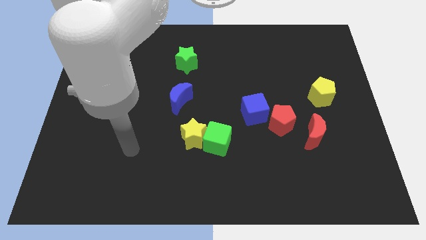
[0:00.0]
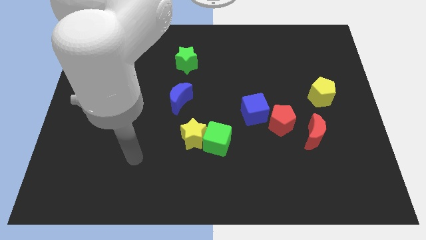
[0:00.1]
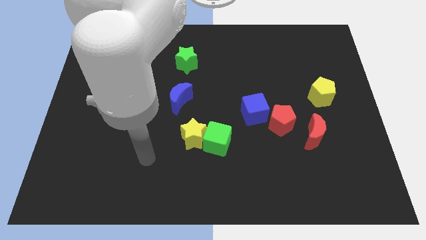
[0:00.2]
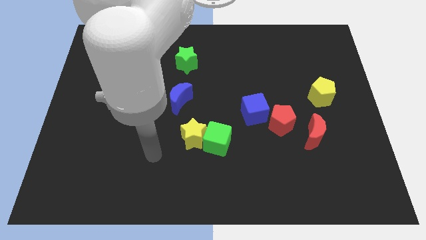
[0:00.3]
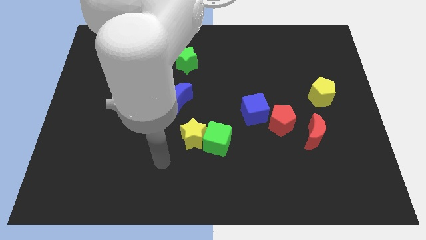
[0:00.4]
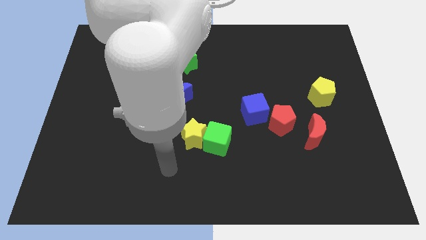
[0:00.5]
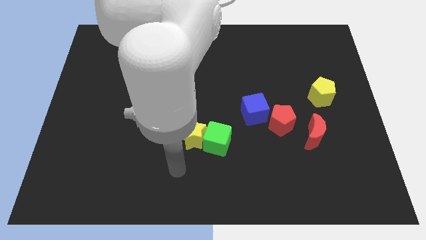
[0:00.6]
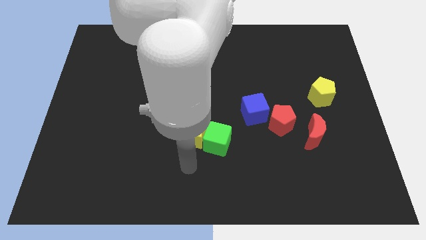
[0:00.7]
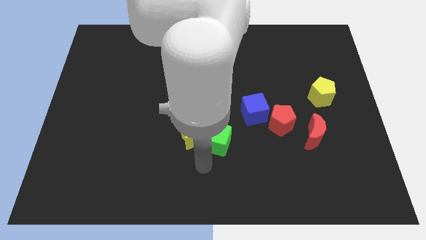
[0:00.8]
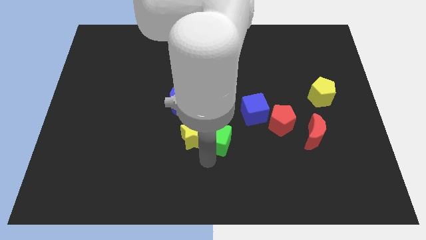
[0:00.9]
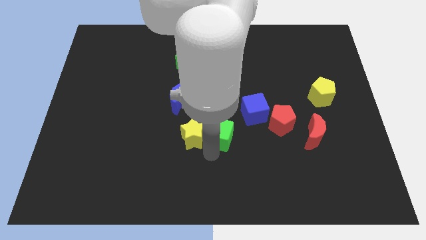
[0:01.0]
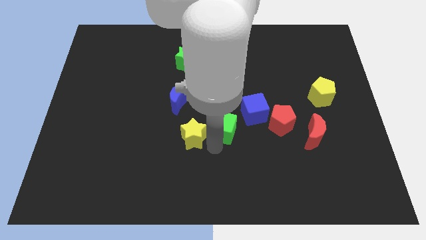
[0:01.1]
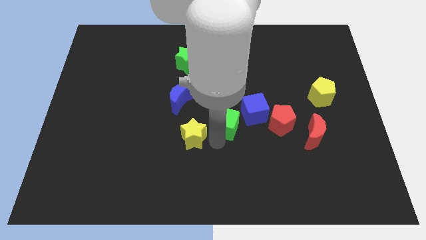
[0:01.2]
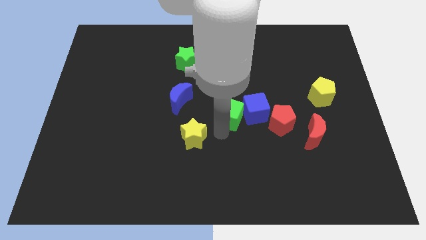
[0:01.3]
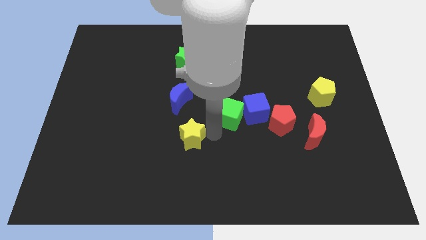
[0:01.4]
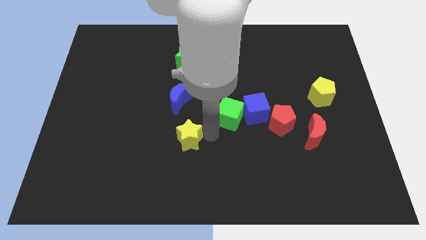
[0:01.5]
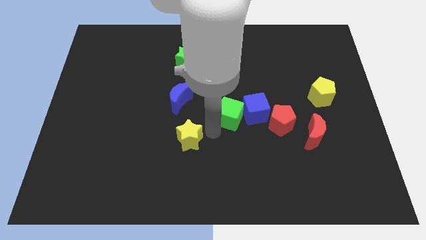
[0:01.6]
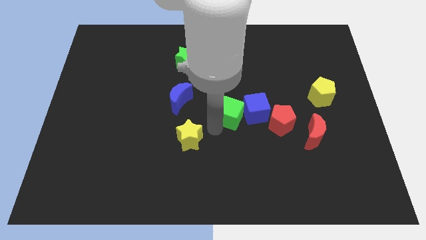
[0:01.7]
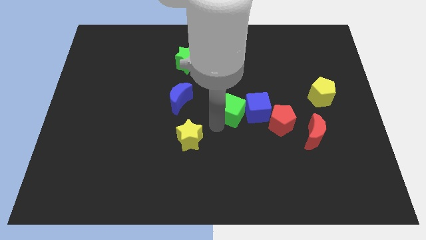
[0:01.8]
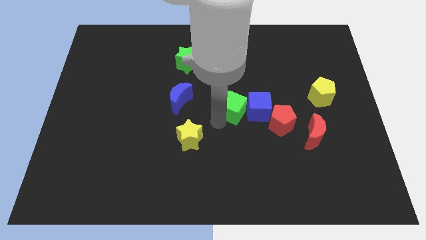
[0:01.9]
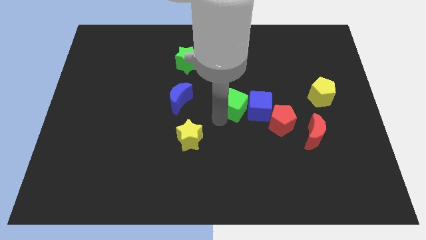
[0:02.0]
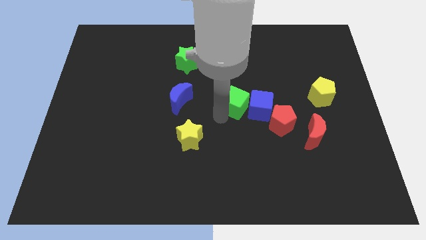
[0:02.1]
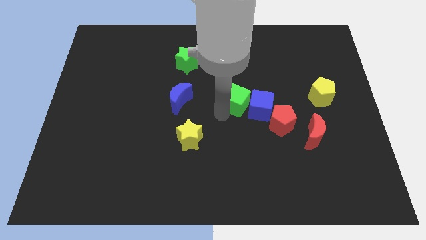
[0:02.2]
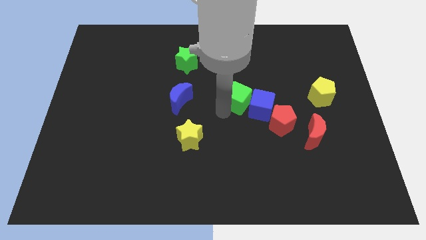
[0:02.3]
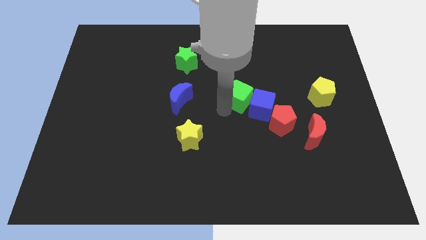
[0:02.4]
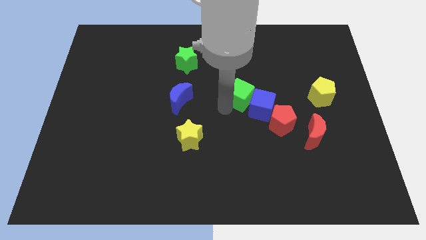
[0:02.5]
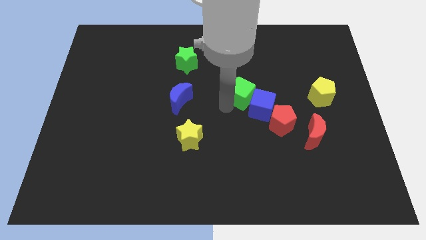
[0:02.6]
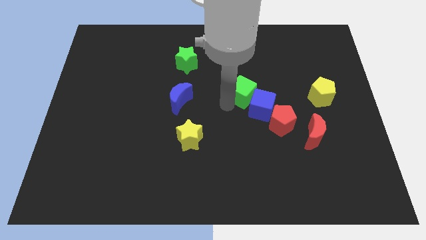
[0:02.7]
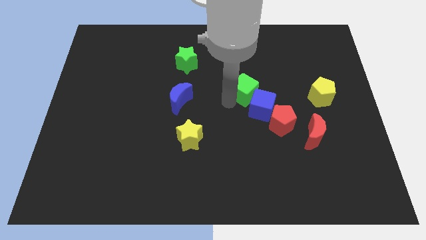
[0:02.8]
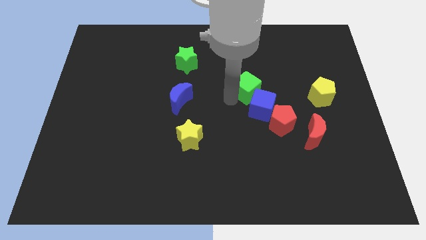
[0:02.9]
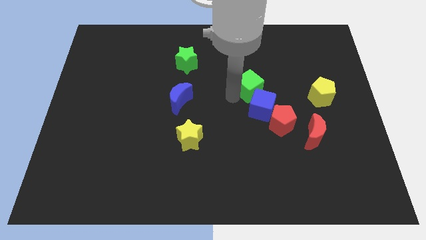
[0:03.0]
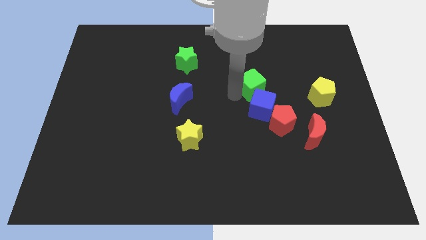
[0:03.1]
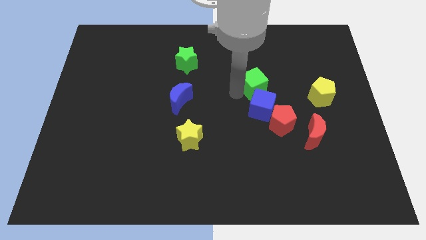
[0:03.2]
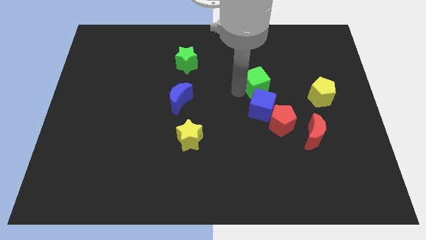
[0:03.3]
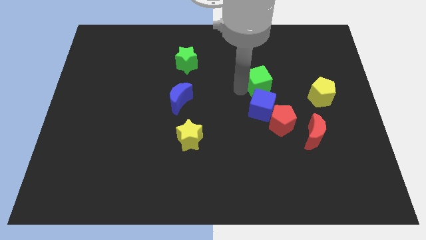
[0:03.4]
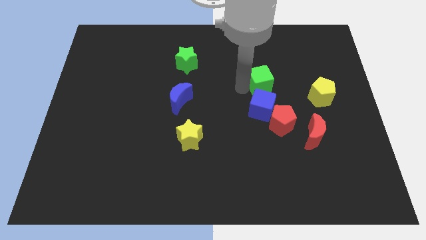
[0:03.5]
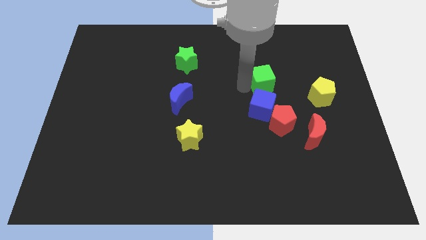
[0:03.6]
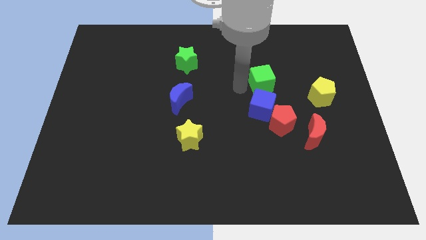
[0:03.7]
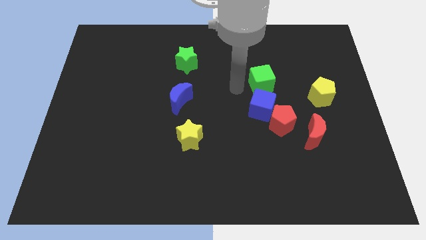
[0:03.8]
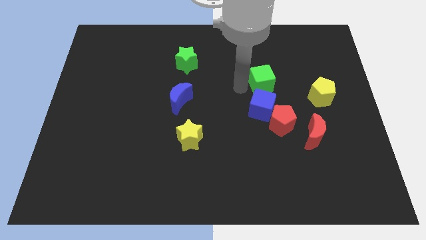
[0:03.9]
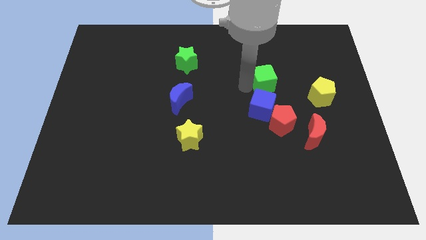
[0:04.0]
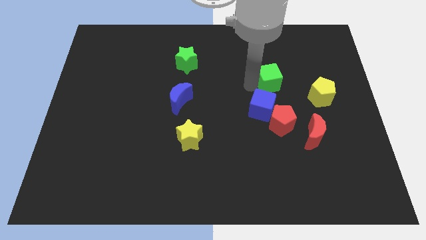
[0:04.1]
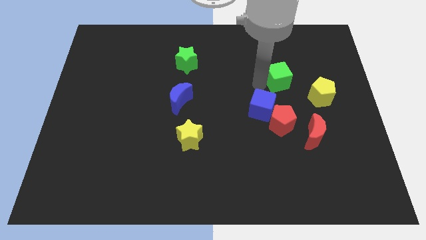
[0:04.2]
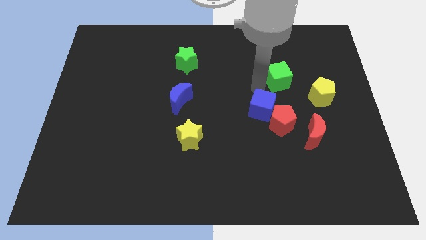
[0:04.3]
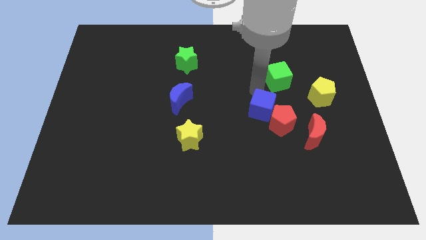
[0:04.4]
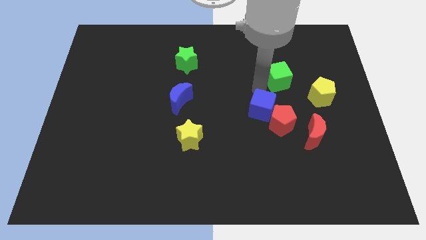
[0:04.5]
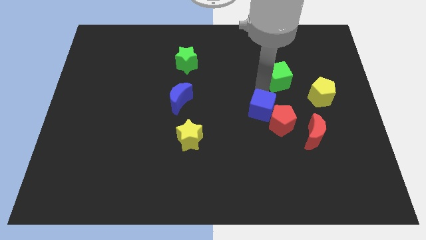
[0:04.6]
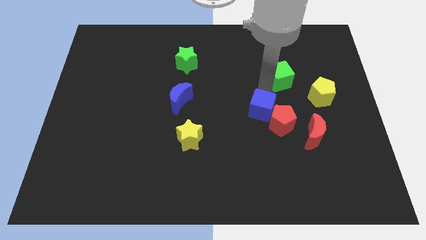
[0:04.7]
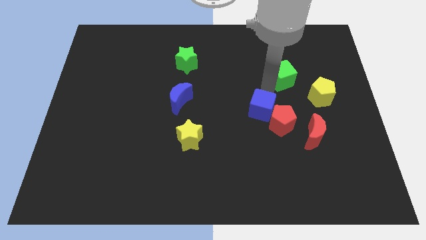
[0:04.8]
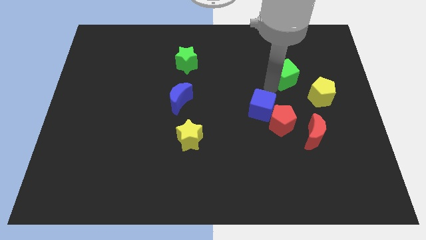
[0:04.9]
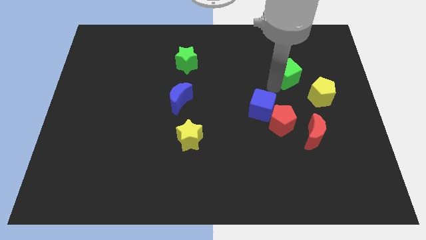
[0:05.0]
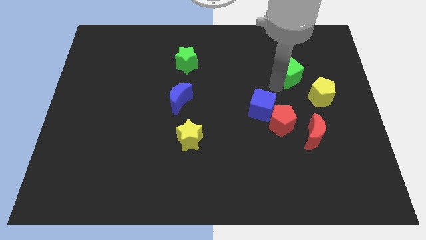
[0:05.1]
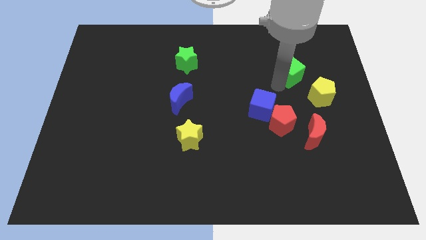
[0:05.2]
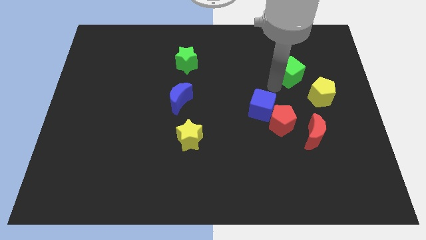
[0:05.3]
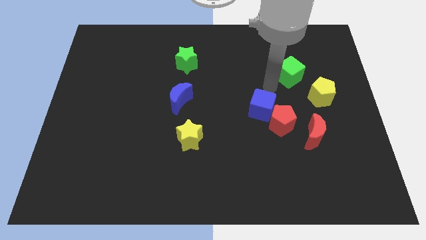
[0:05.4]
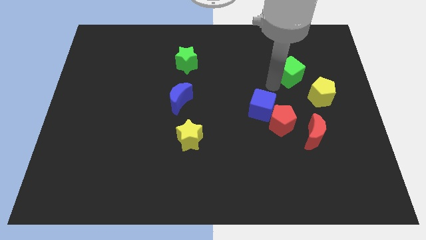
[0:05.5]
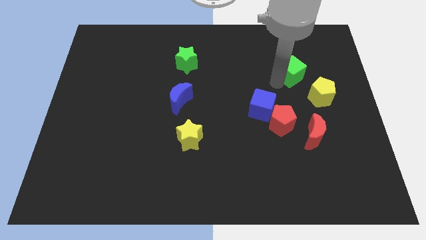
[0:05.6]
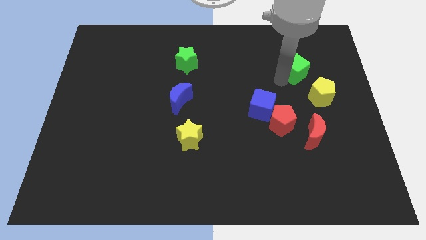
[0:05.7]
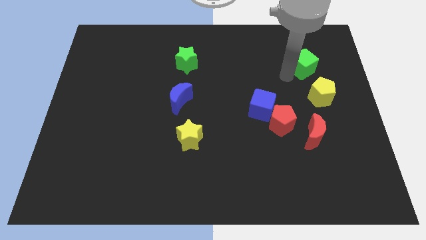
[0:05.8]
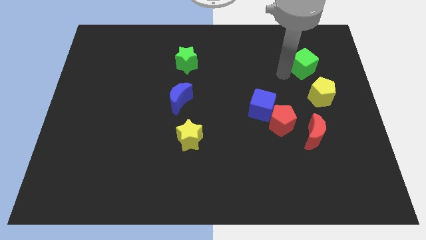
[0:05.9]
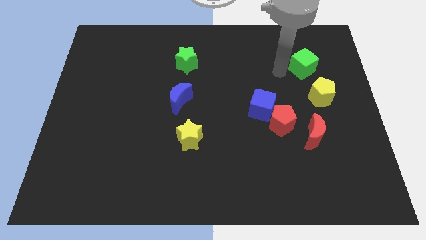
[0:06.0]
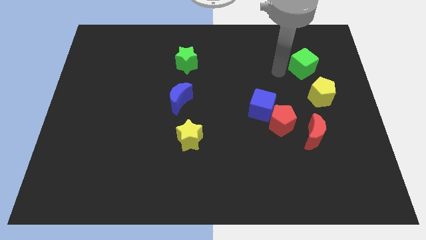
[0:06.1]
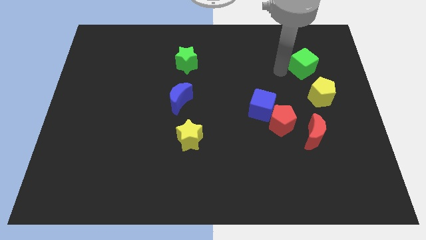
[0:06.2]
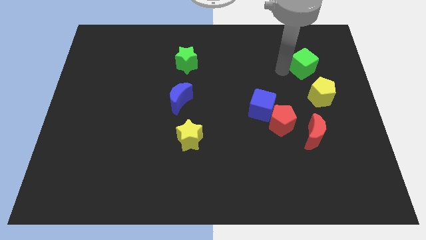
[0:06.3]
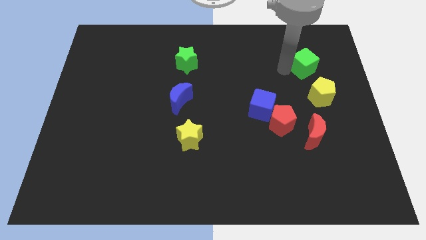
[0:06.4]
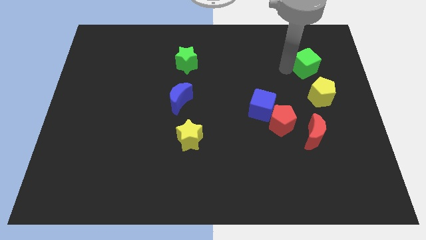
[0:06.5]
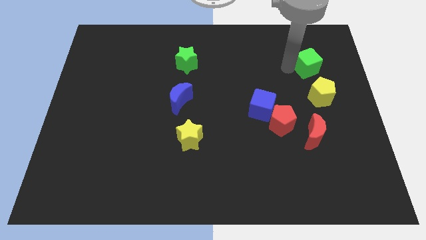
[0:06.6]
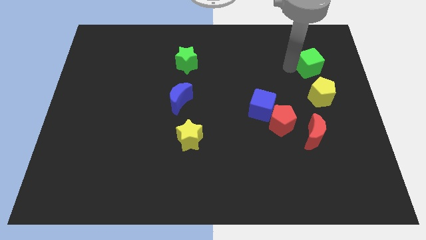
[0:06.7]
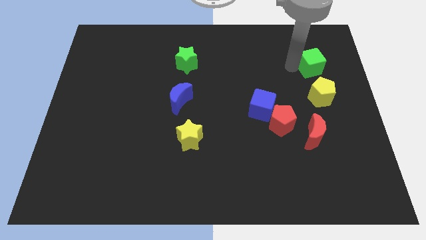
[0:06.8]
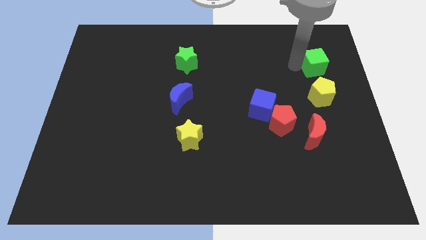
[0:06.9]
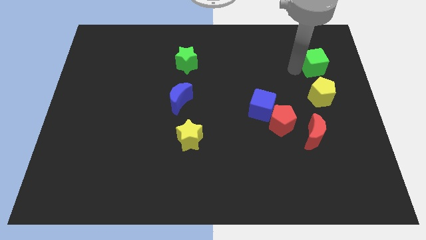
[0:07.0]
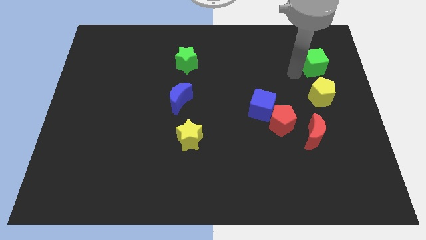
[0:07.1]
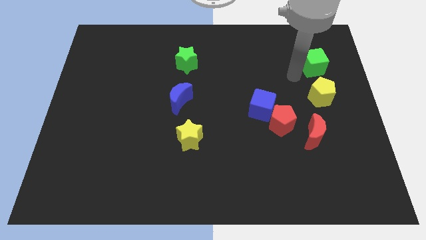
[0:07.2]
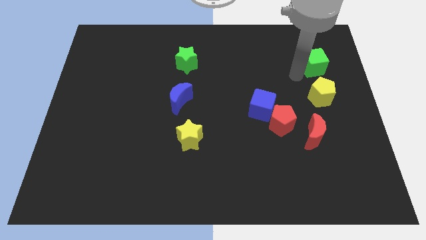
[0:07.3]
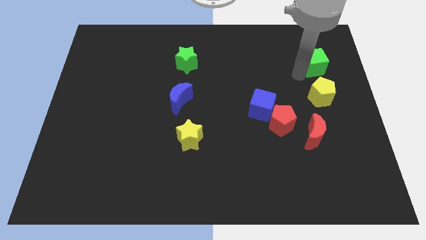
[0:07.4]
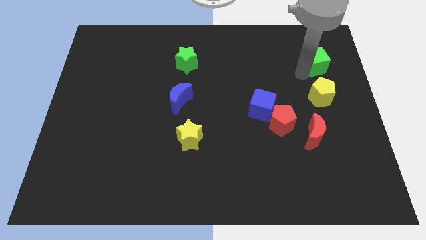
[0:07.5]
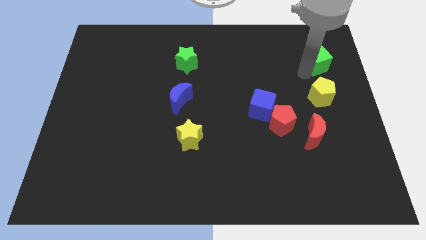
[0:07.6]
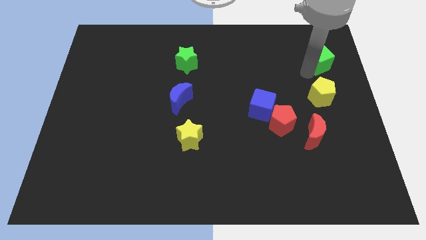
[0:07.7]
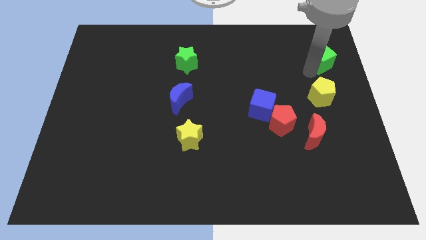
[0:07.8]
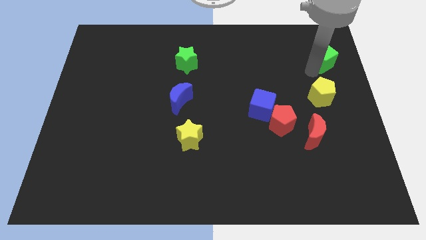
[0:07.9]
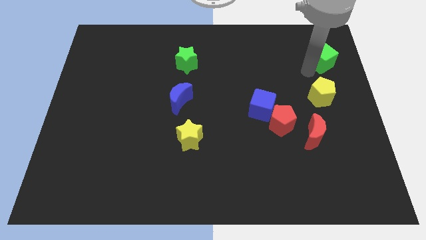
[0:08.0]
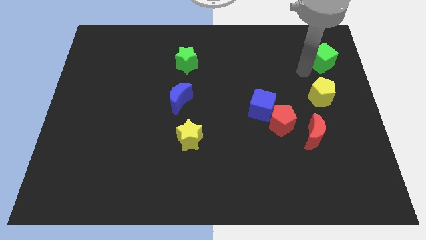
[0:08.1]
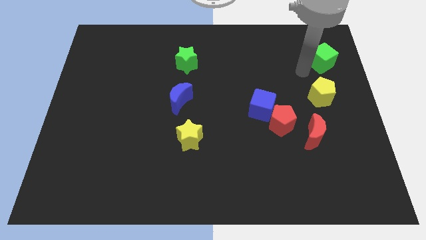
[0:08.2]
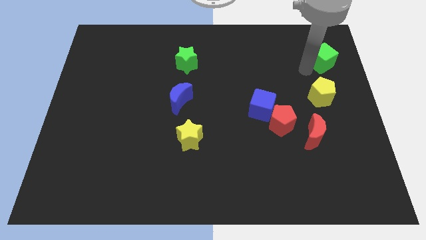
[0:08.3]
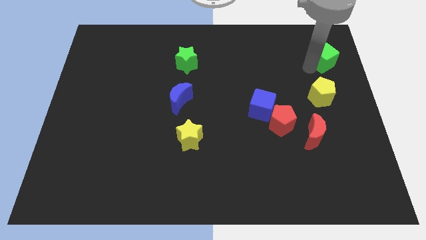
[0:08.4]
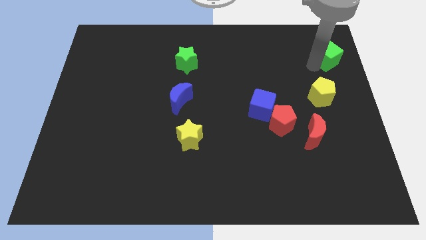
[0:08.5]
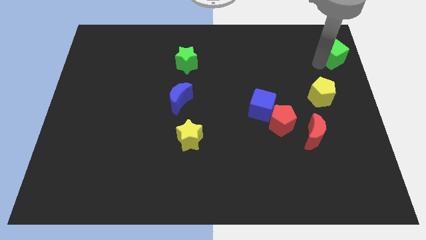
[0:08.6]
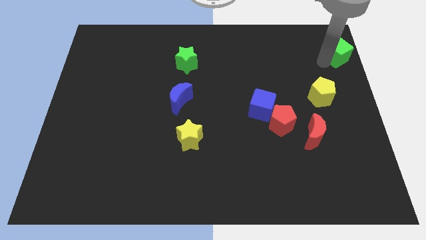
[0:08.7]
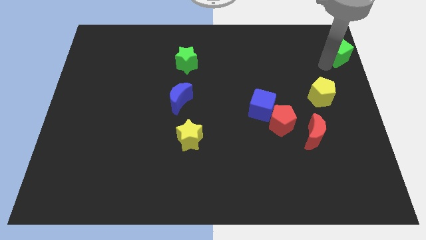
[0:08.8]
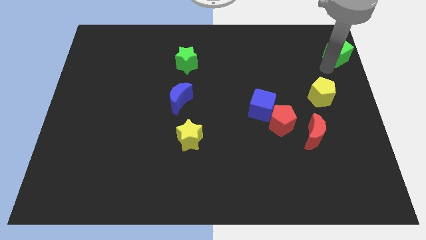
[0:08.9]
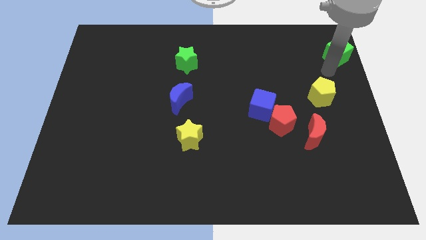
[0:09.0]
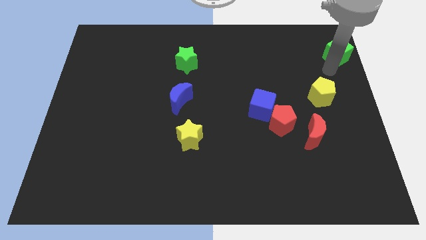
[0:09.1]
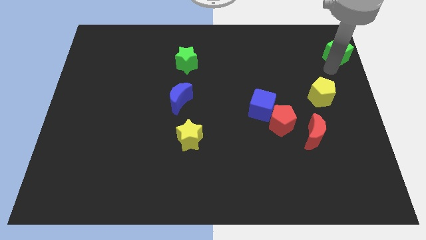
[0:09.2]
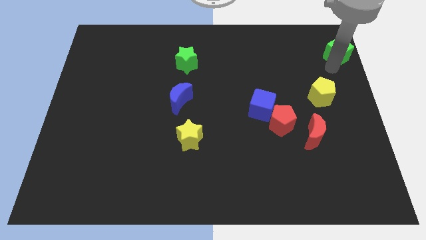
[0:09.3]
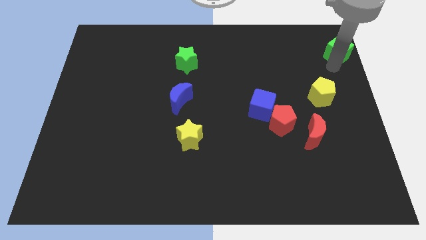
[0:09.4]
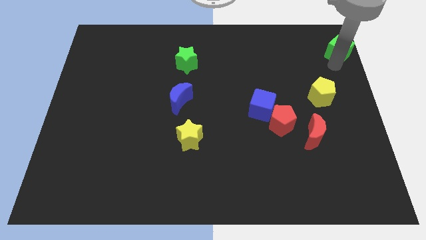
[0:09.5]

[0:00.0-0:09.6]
move the green cube to the top right corner
